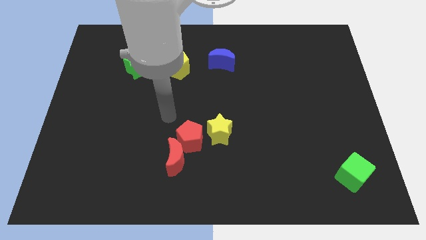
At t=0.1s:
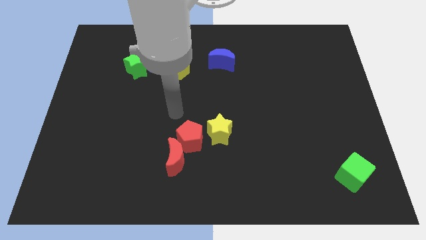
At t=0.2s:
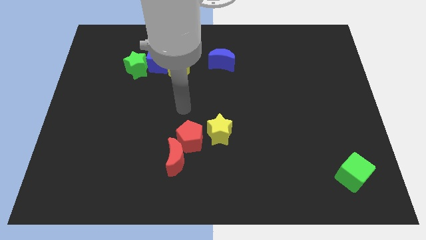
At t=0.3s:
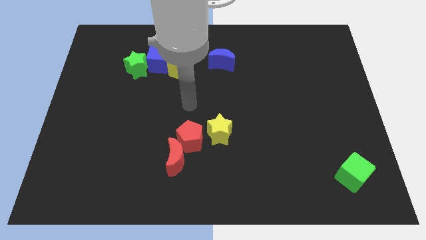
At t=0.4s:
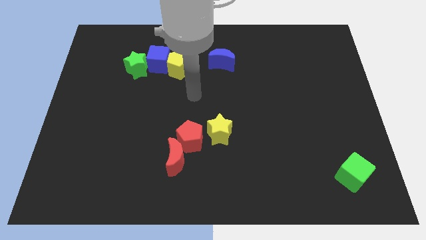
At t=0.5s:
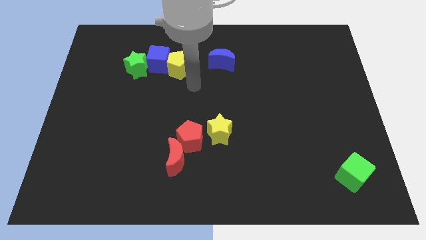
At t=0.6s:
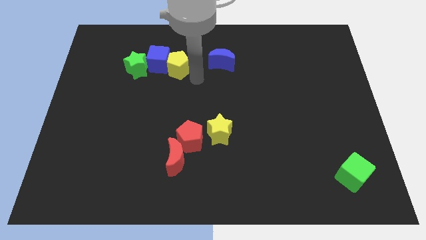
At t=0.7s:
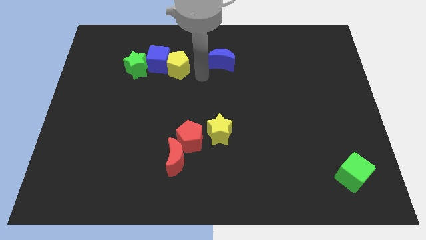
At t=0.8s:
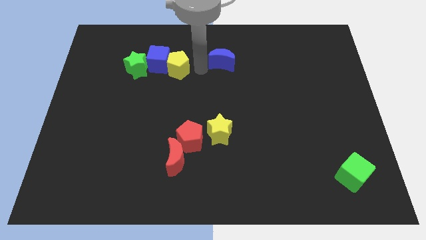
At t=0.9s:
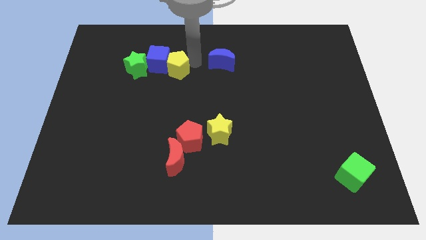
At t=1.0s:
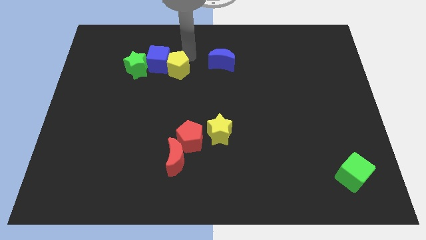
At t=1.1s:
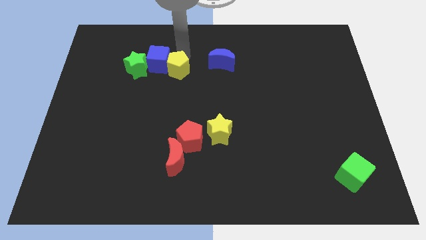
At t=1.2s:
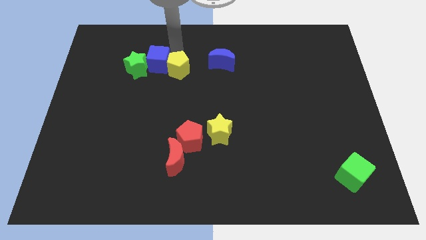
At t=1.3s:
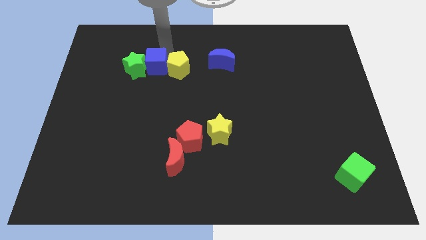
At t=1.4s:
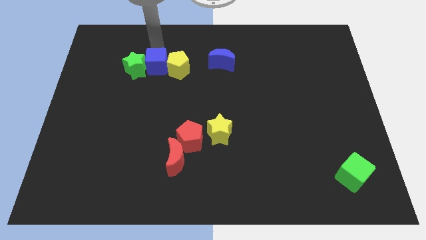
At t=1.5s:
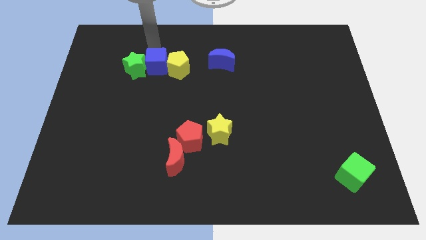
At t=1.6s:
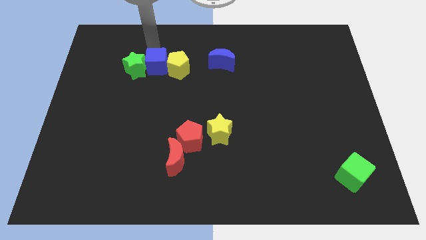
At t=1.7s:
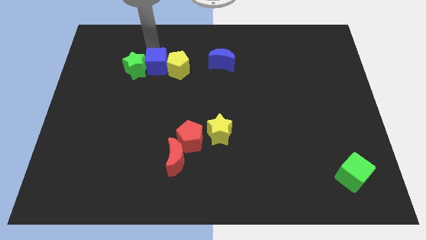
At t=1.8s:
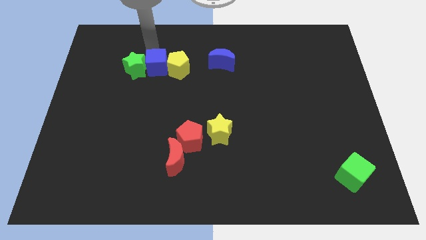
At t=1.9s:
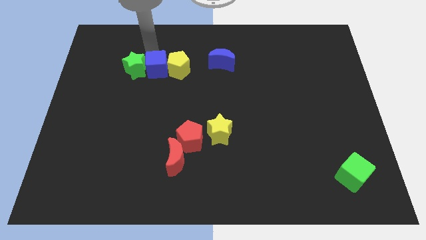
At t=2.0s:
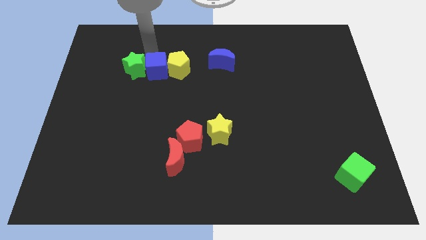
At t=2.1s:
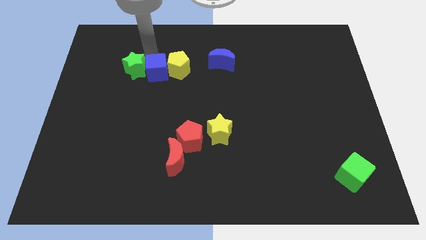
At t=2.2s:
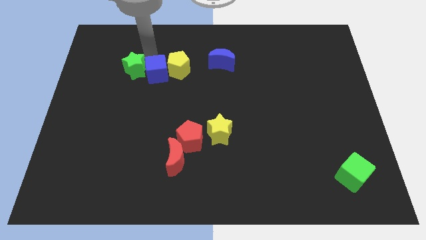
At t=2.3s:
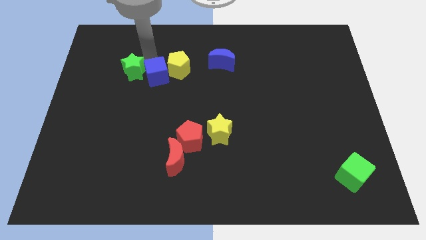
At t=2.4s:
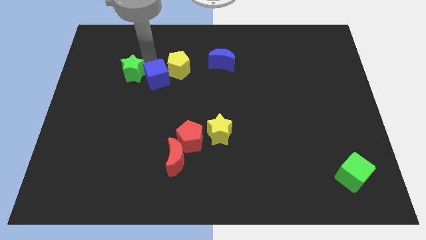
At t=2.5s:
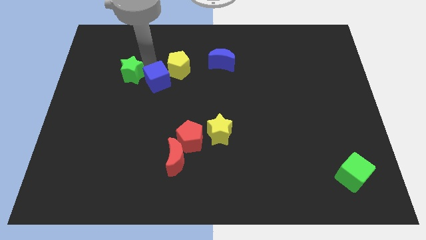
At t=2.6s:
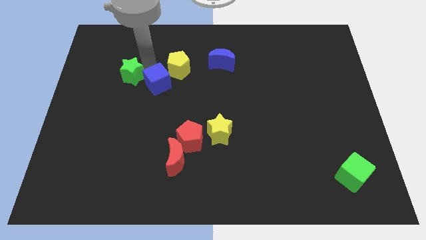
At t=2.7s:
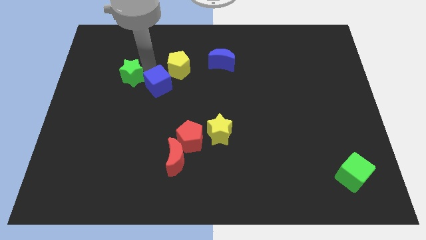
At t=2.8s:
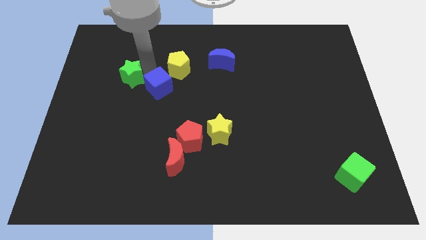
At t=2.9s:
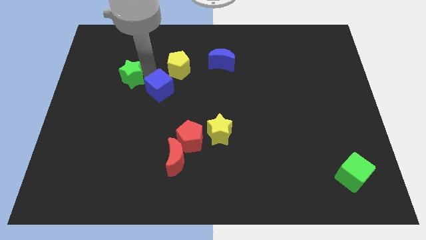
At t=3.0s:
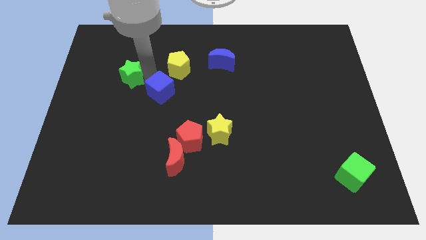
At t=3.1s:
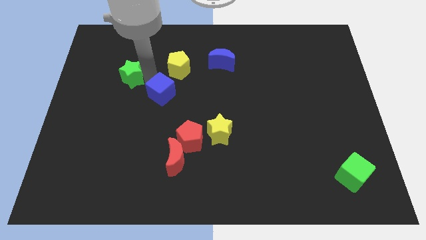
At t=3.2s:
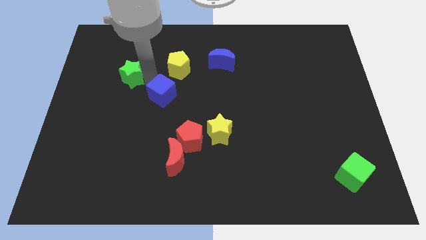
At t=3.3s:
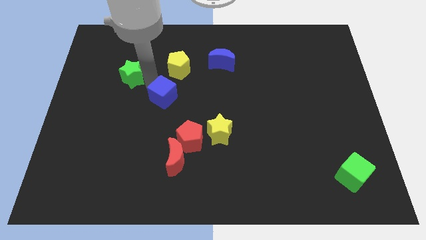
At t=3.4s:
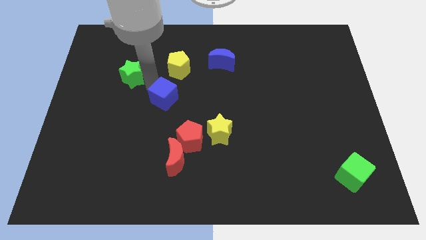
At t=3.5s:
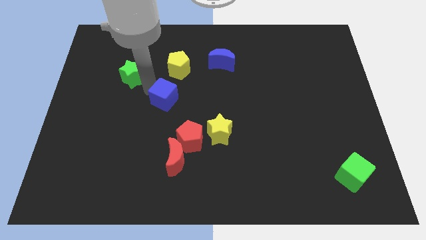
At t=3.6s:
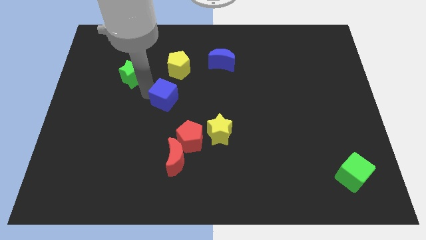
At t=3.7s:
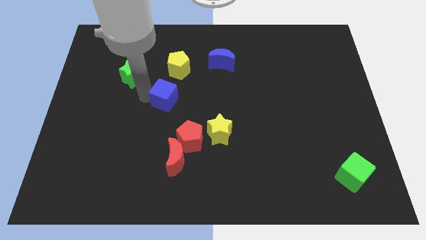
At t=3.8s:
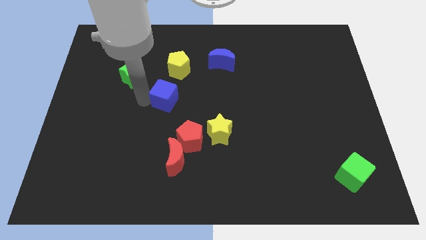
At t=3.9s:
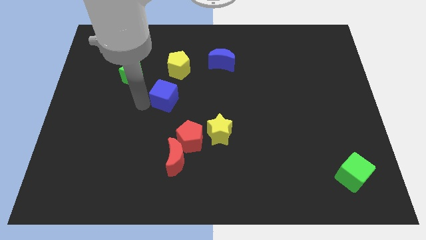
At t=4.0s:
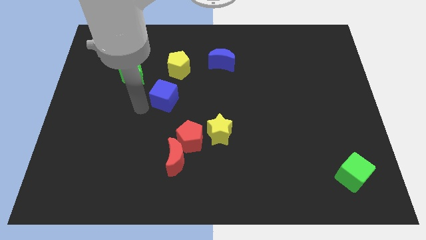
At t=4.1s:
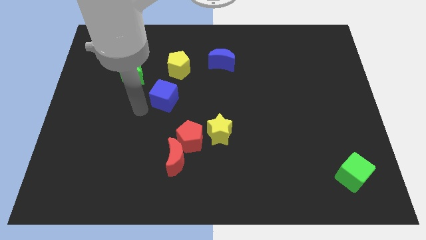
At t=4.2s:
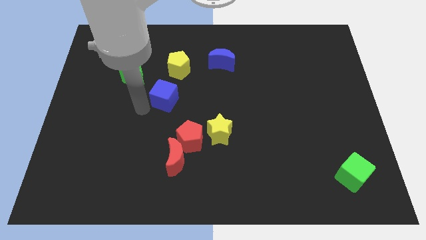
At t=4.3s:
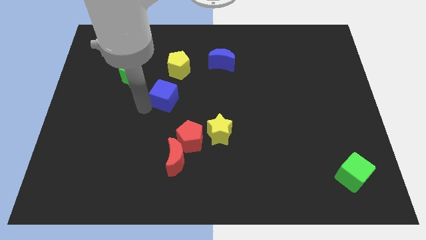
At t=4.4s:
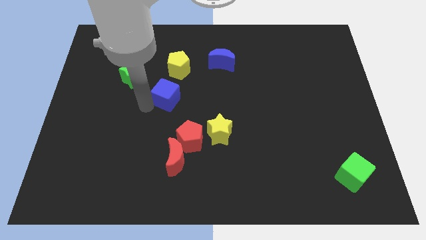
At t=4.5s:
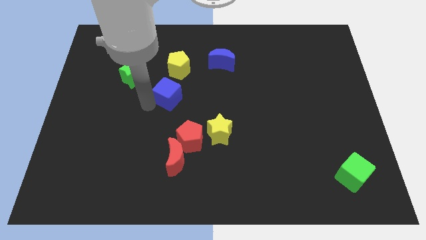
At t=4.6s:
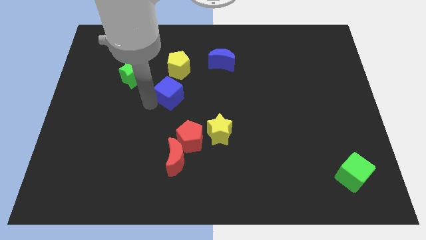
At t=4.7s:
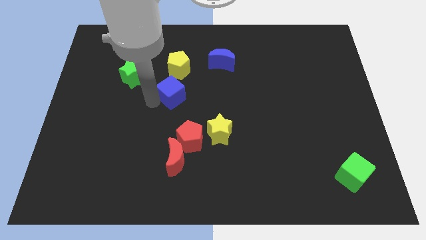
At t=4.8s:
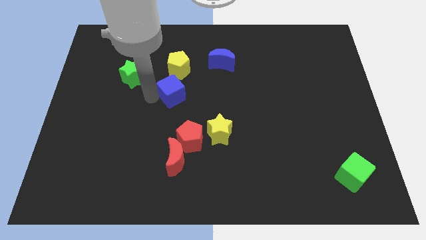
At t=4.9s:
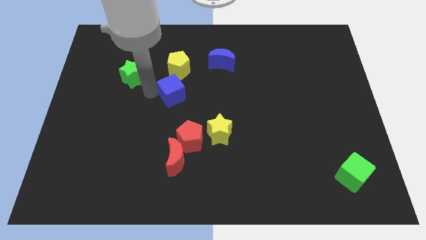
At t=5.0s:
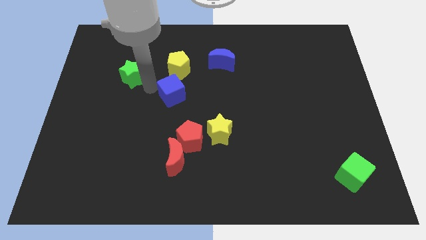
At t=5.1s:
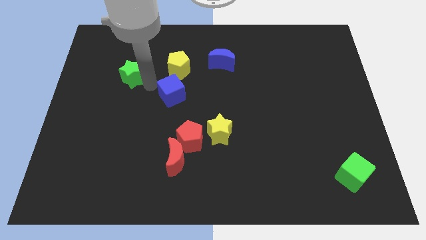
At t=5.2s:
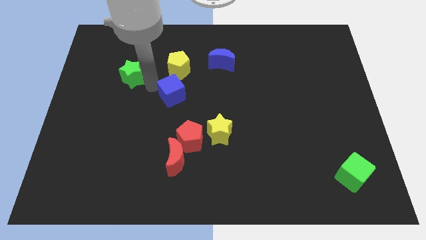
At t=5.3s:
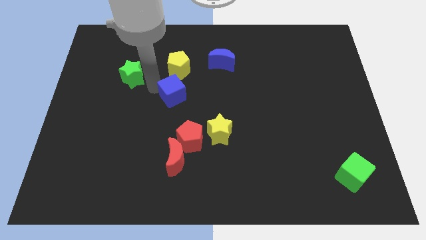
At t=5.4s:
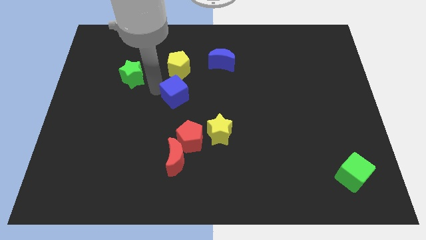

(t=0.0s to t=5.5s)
put the blue cube above the red pentagon

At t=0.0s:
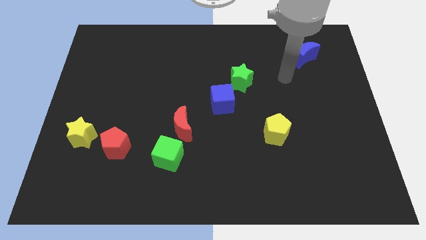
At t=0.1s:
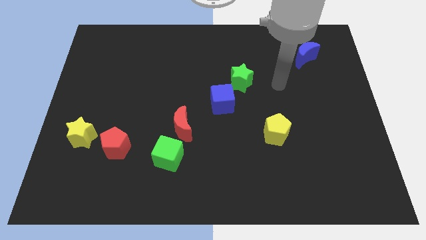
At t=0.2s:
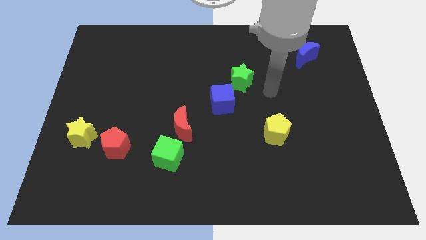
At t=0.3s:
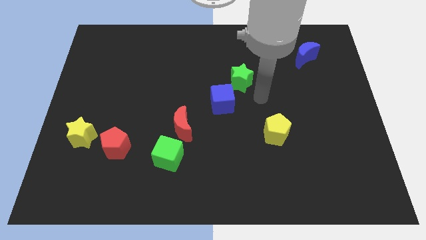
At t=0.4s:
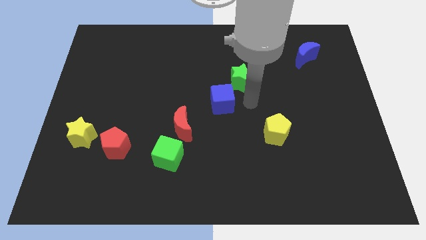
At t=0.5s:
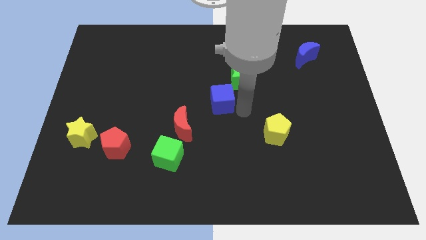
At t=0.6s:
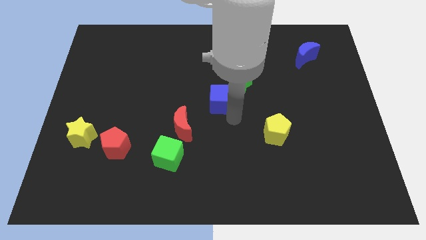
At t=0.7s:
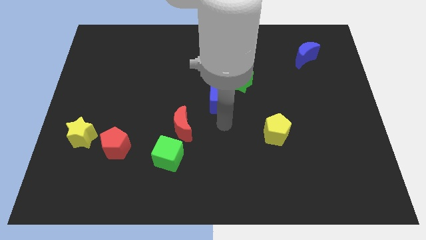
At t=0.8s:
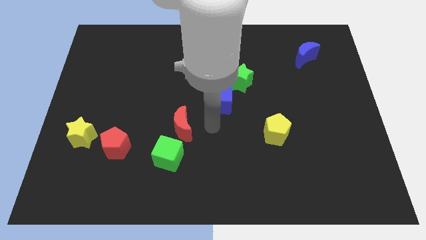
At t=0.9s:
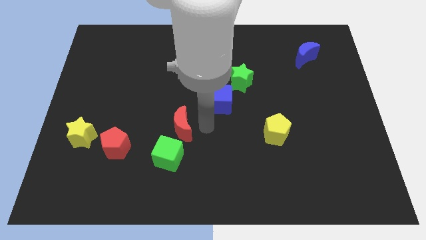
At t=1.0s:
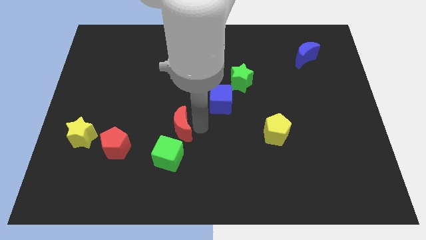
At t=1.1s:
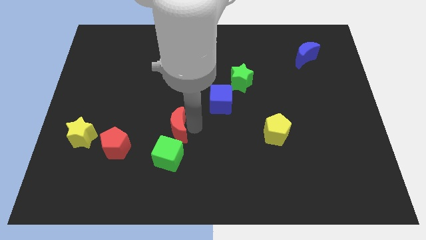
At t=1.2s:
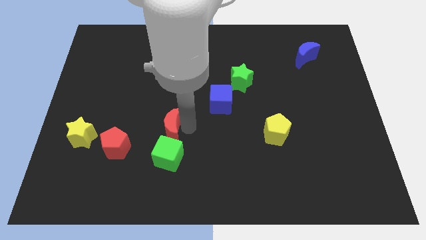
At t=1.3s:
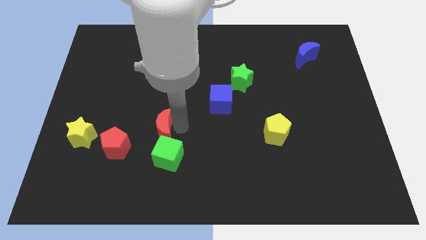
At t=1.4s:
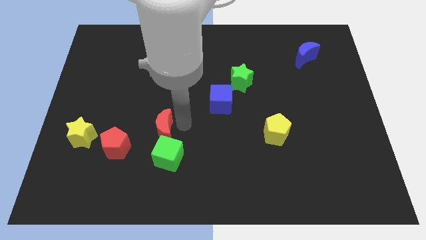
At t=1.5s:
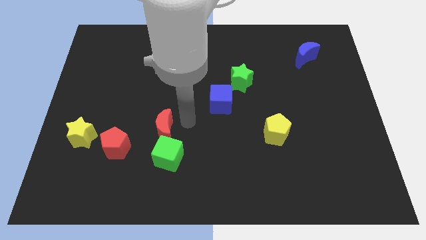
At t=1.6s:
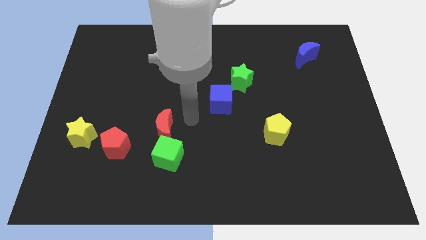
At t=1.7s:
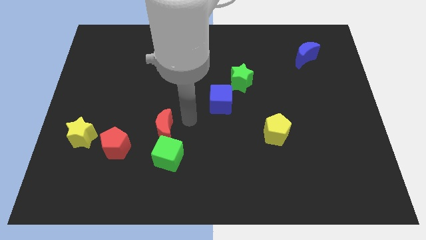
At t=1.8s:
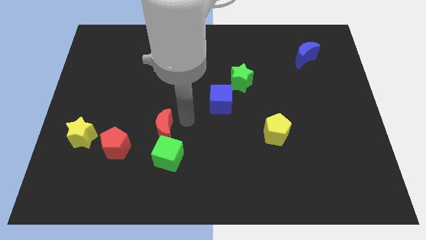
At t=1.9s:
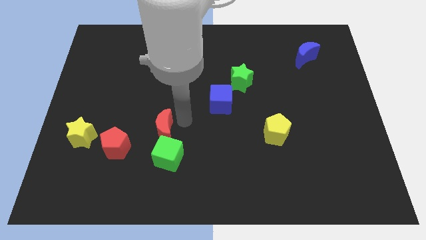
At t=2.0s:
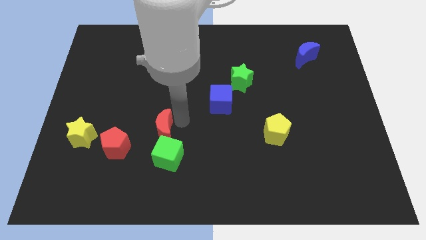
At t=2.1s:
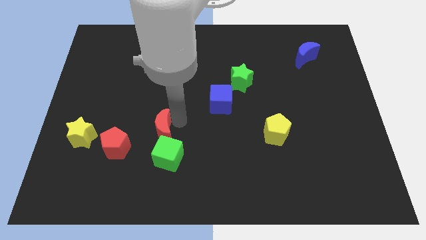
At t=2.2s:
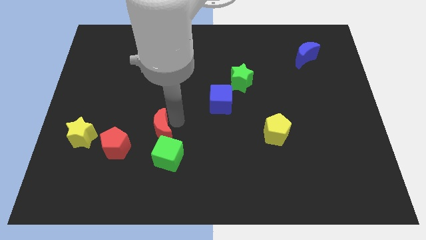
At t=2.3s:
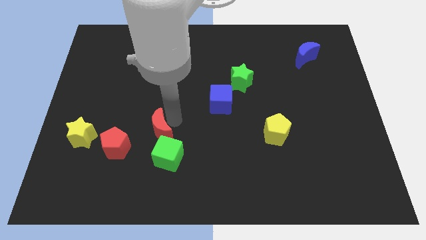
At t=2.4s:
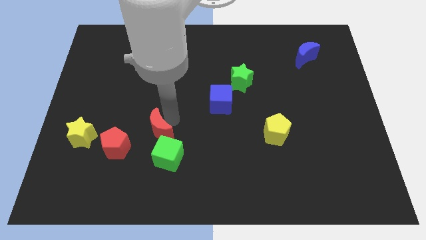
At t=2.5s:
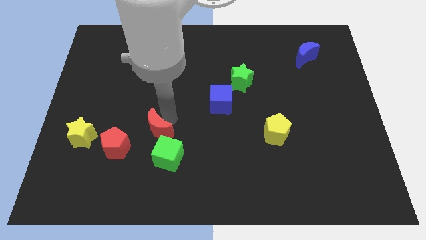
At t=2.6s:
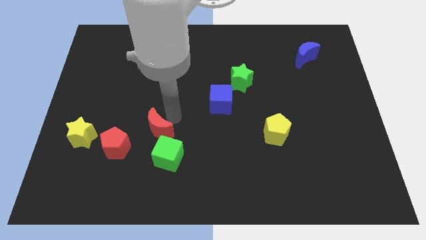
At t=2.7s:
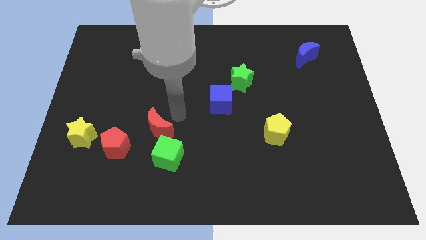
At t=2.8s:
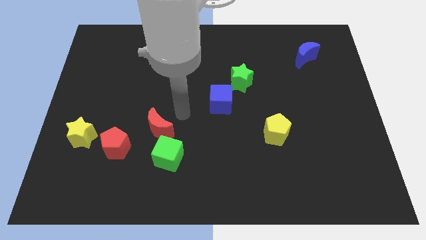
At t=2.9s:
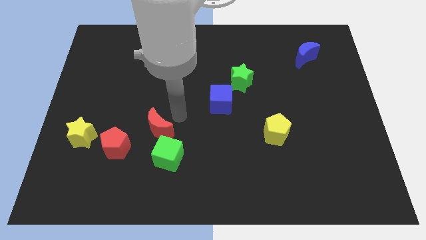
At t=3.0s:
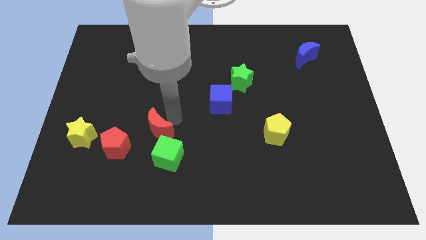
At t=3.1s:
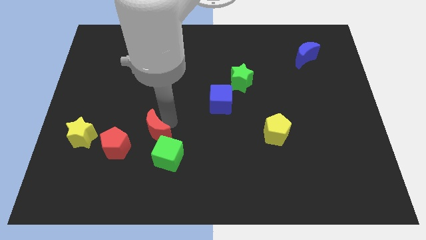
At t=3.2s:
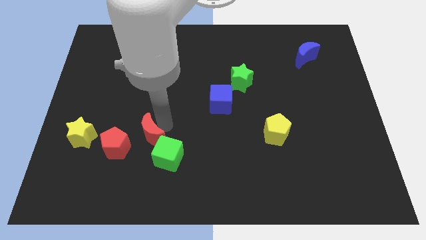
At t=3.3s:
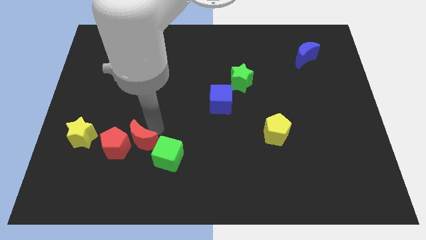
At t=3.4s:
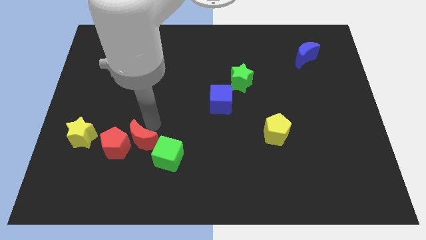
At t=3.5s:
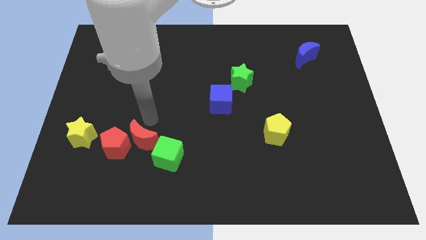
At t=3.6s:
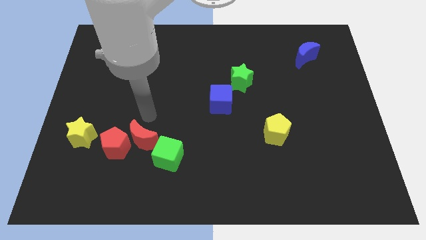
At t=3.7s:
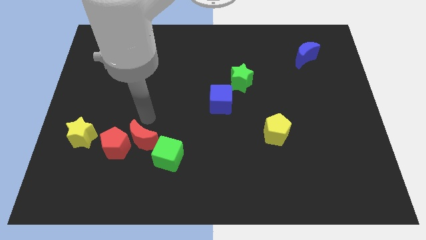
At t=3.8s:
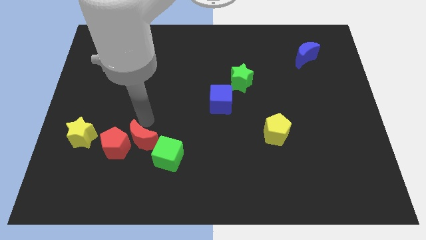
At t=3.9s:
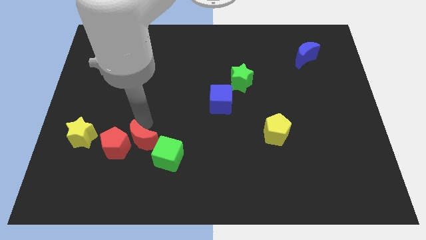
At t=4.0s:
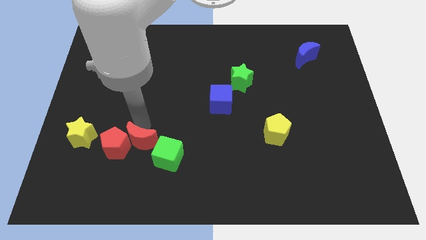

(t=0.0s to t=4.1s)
push the red moon to the bottom right of the red pentagon
